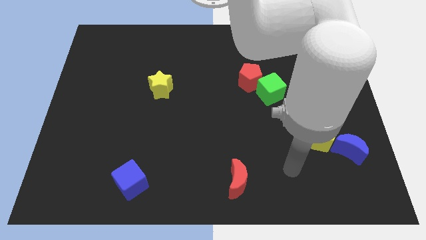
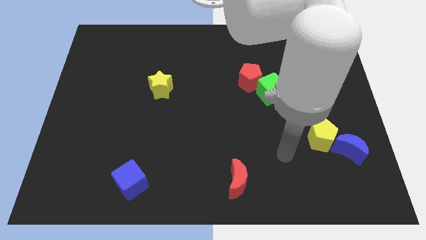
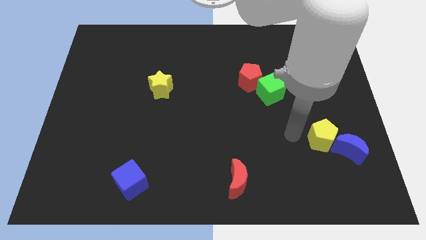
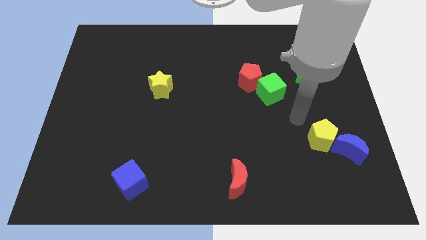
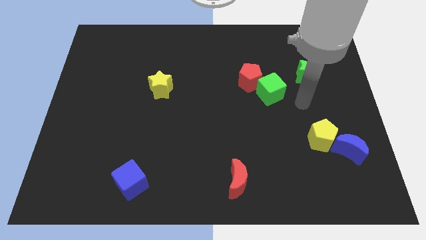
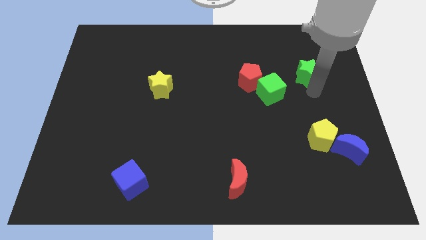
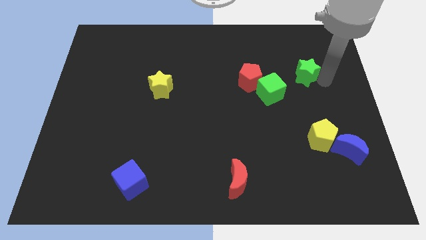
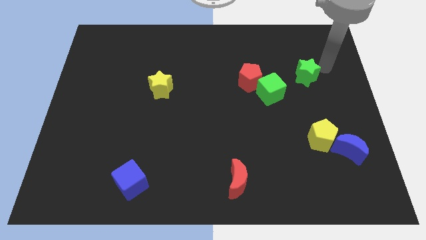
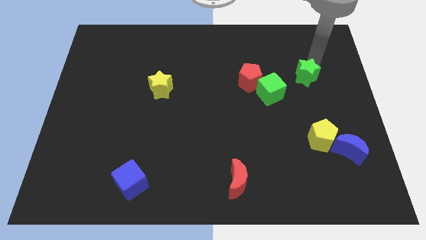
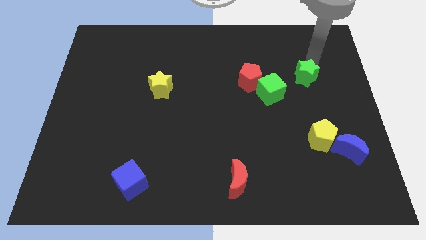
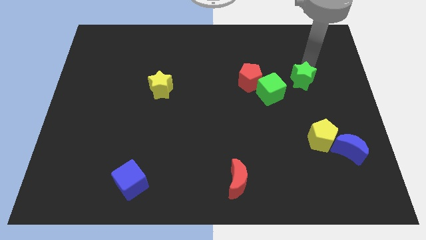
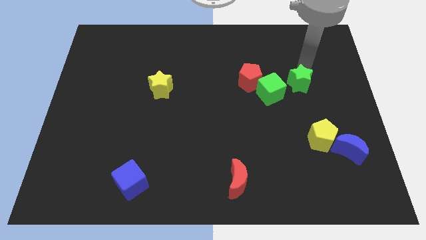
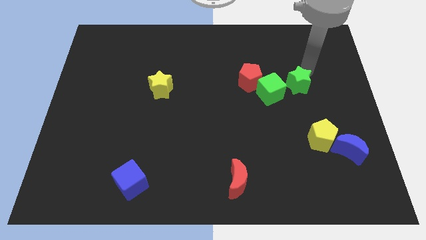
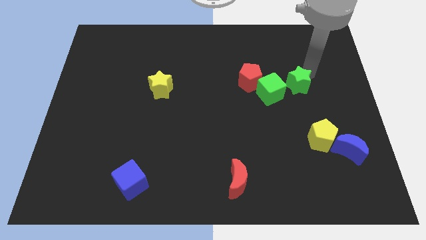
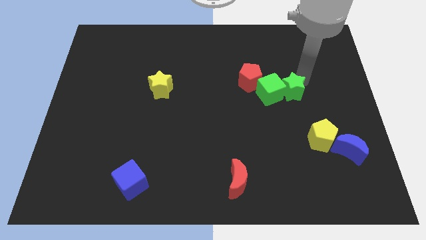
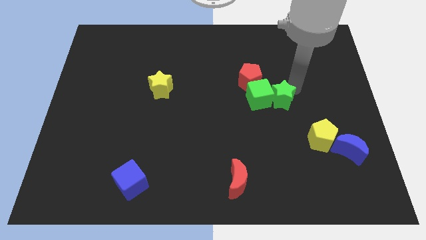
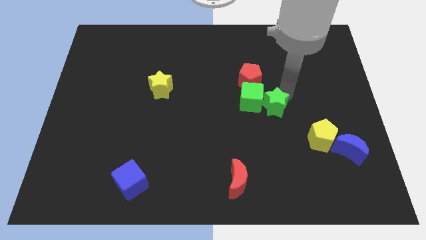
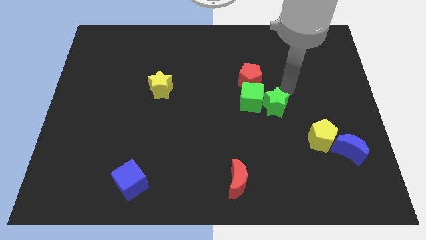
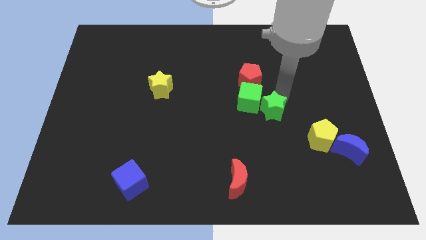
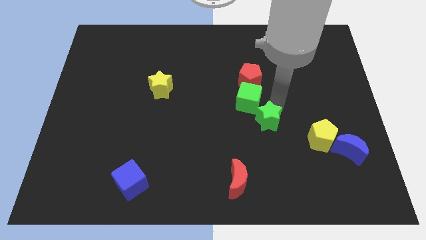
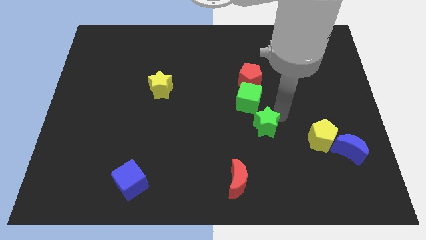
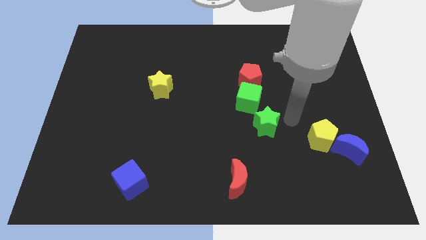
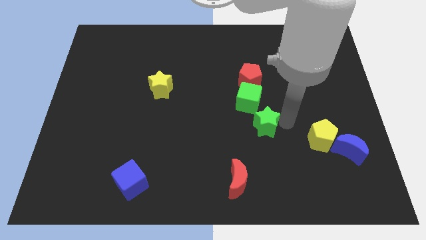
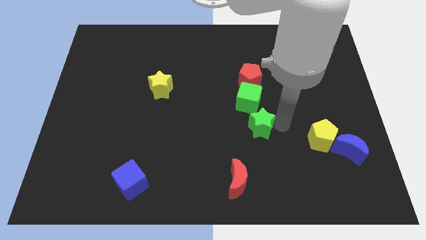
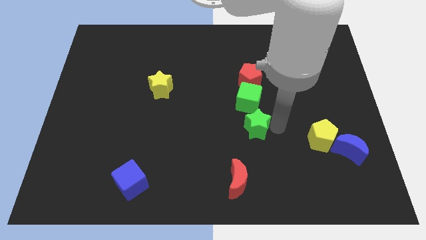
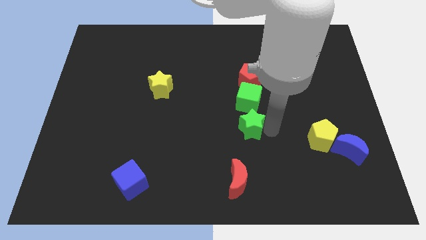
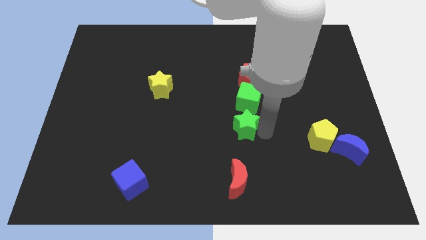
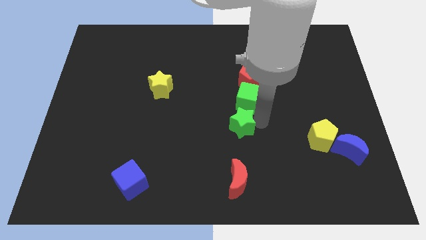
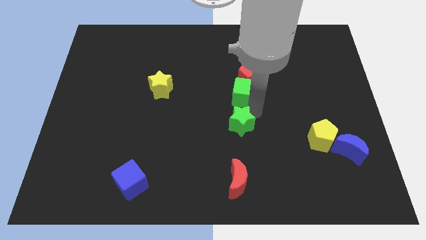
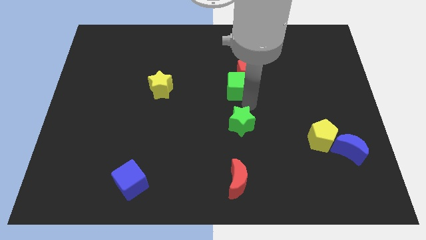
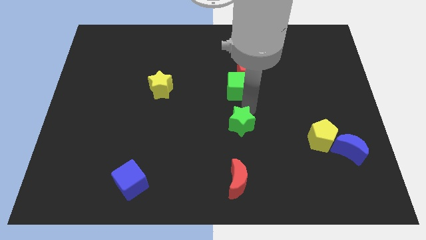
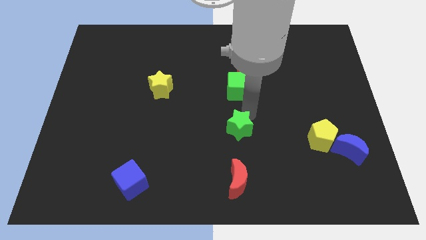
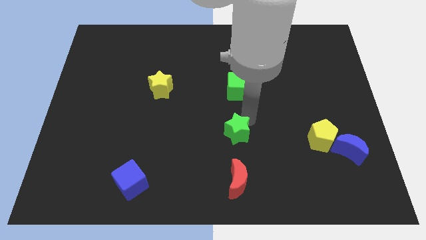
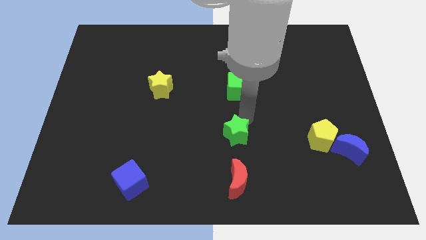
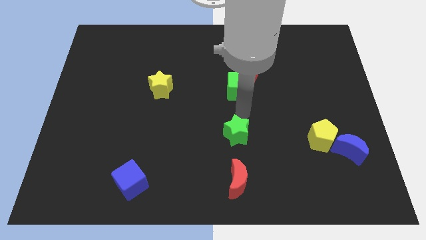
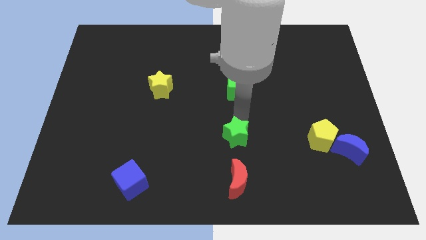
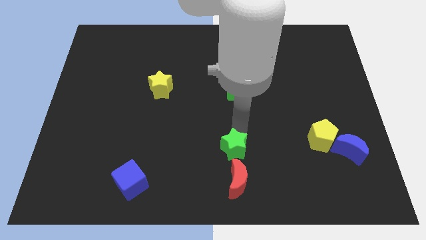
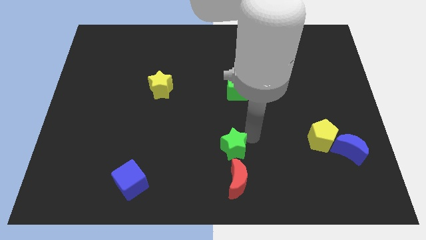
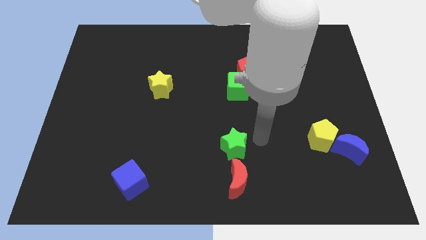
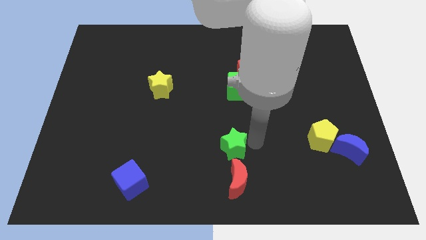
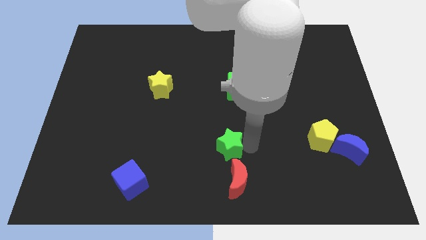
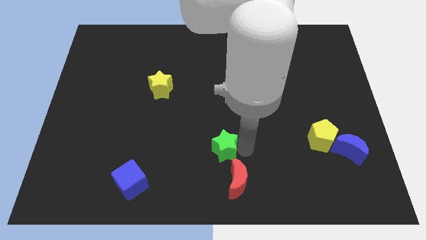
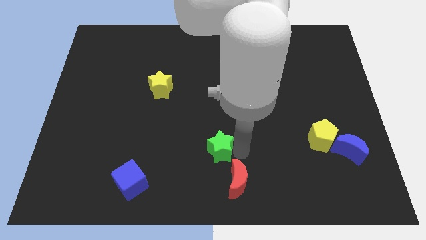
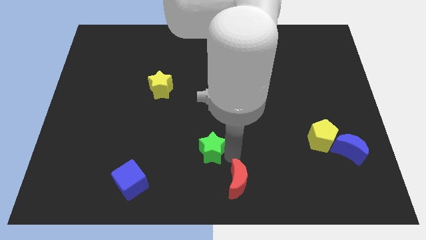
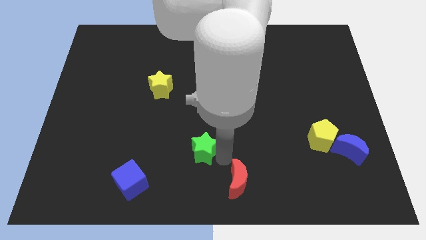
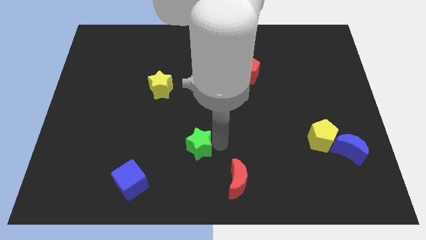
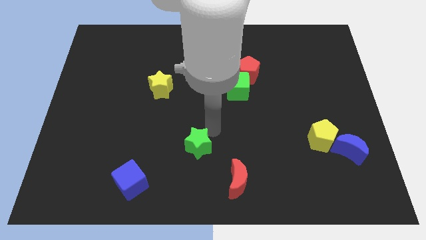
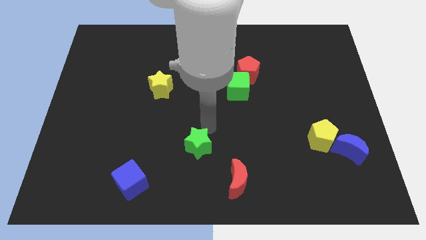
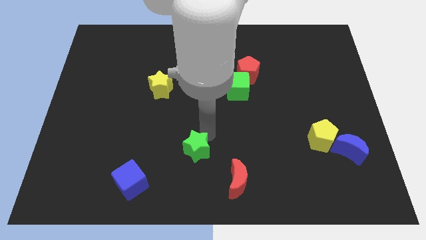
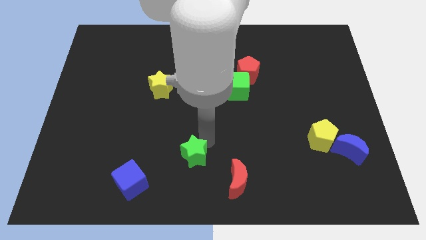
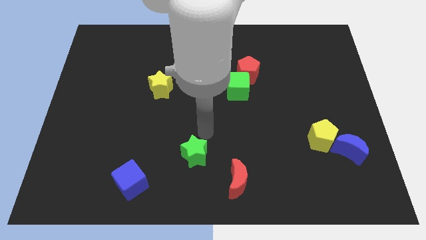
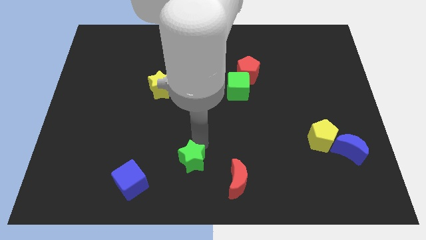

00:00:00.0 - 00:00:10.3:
move the green star right of the blue cube

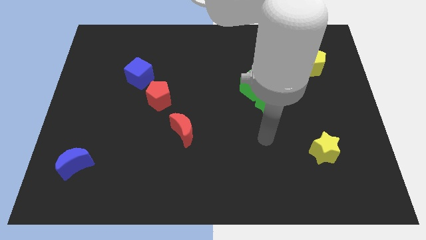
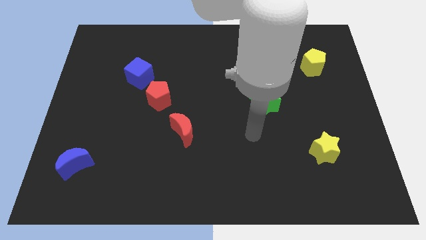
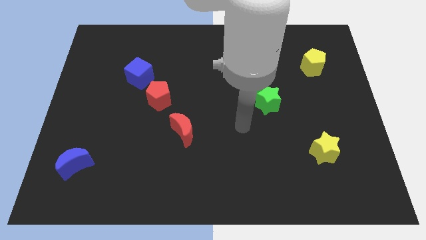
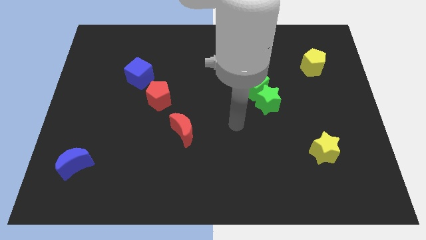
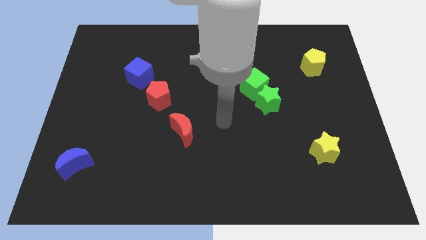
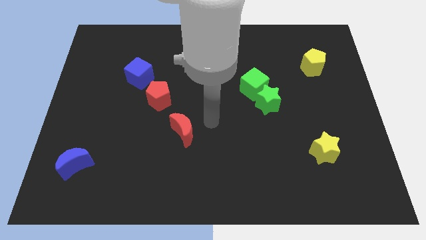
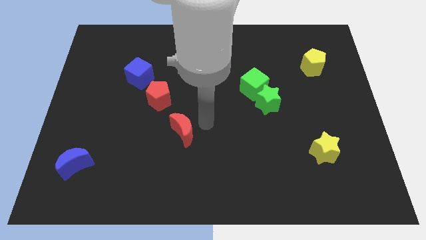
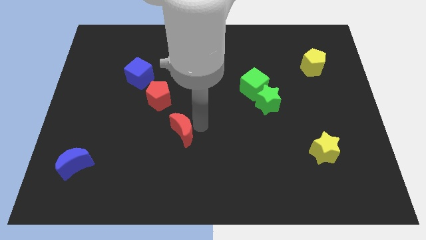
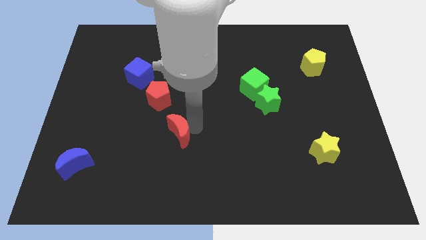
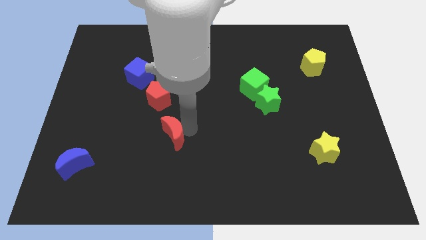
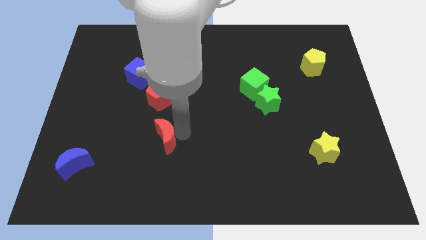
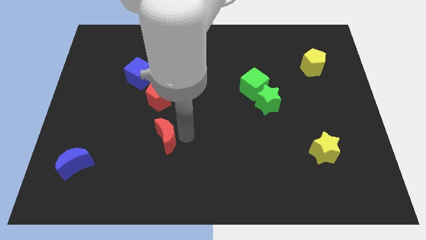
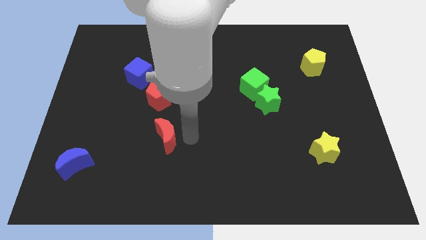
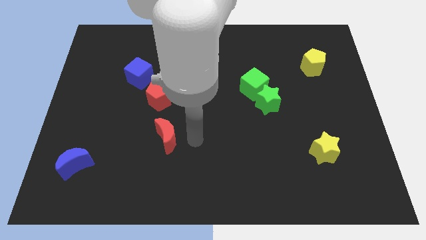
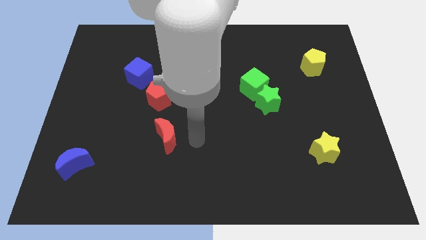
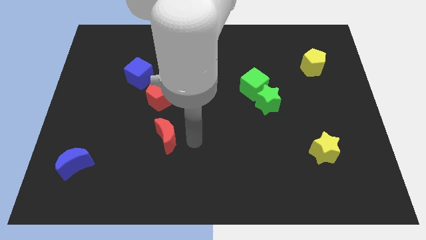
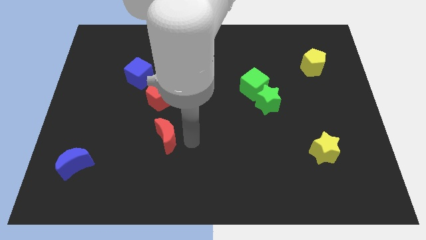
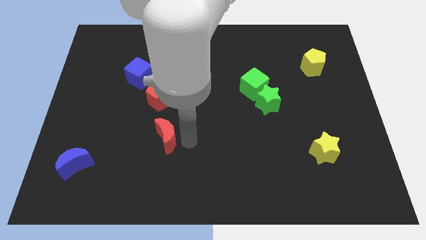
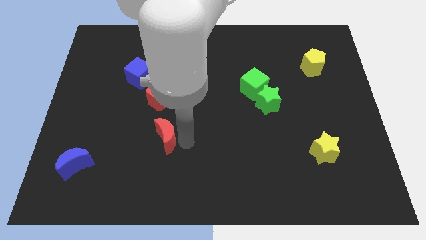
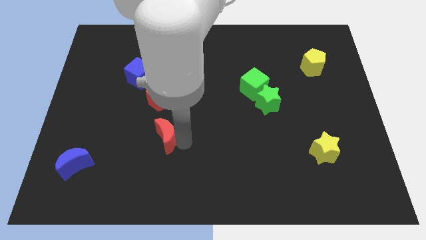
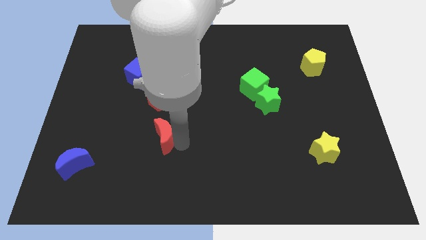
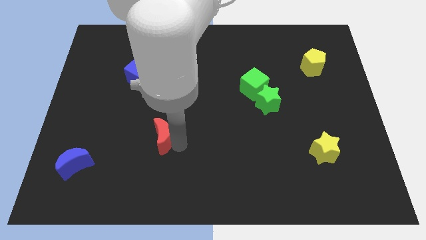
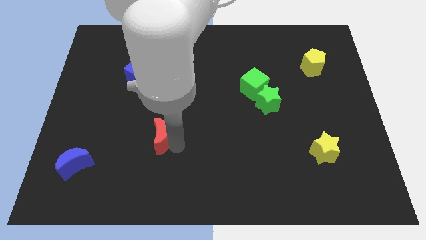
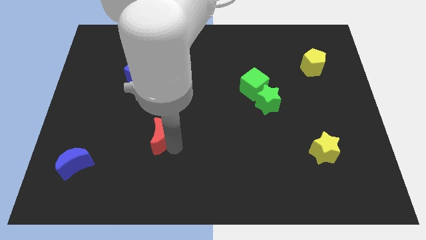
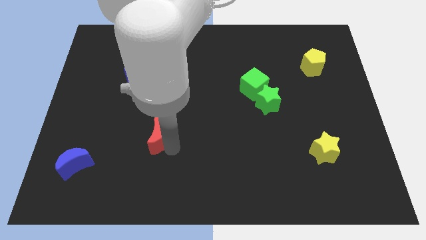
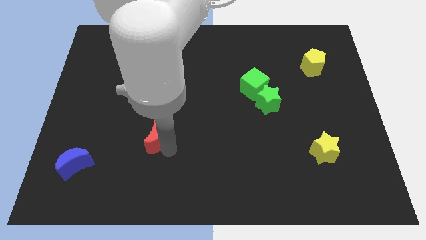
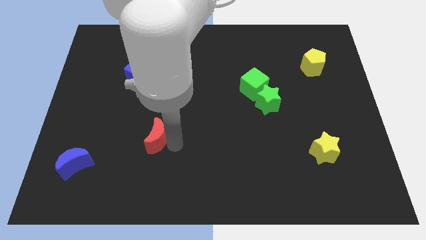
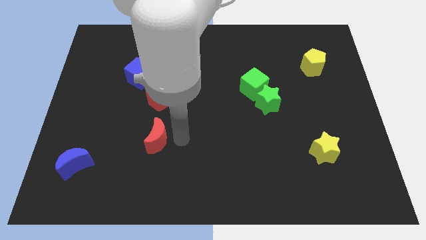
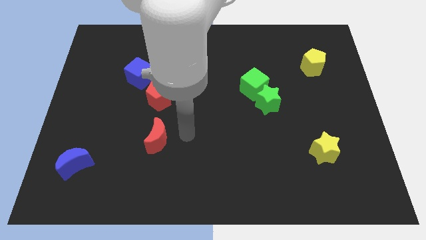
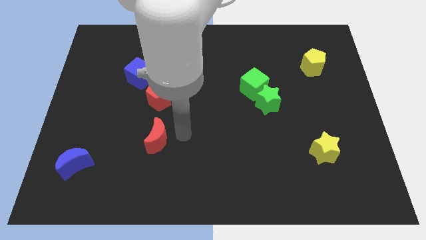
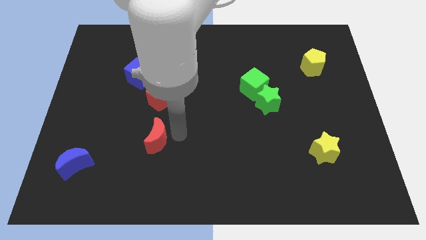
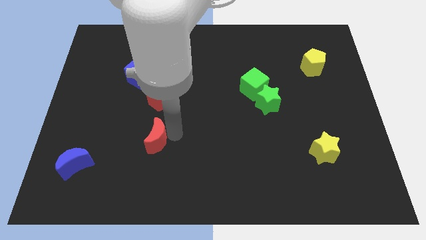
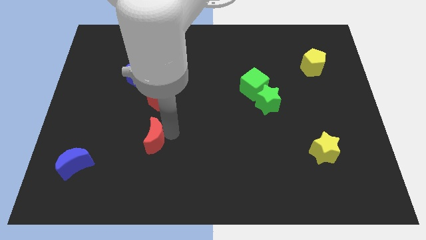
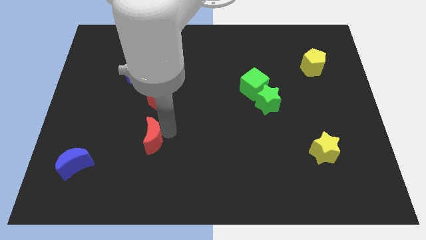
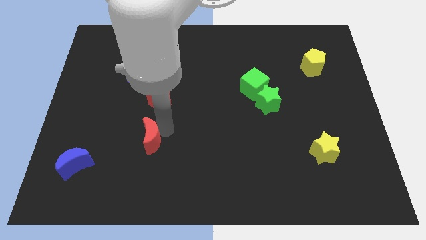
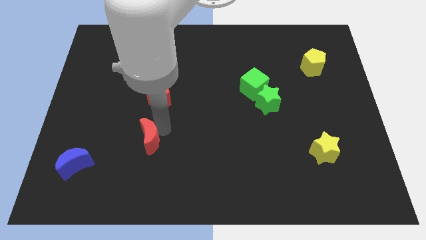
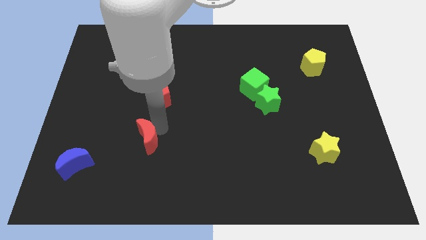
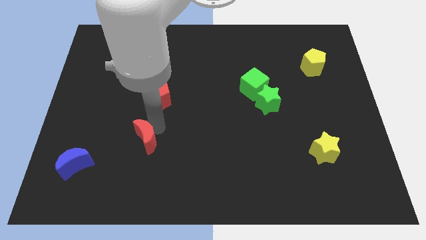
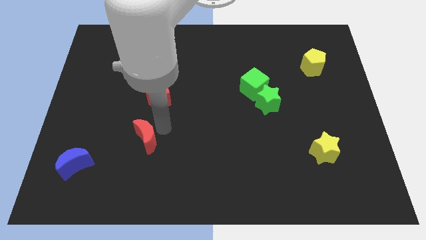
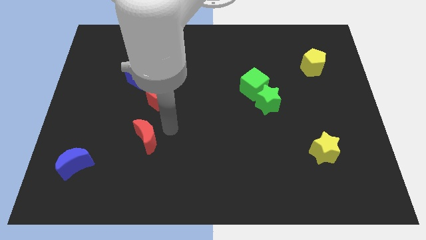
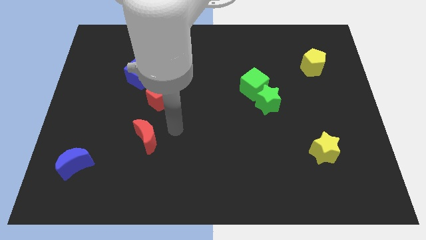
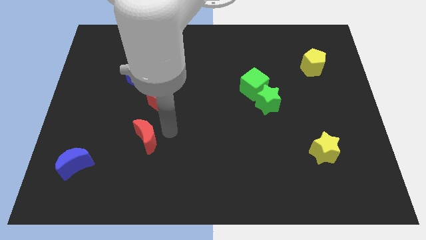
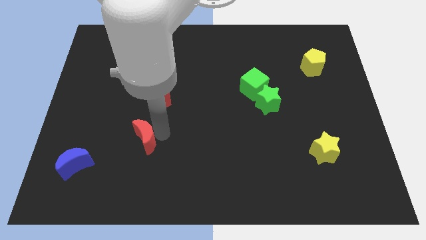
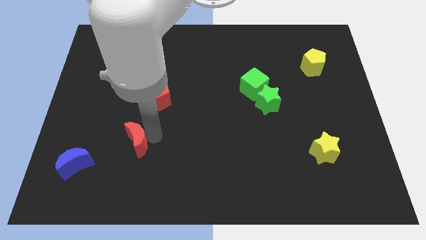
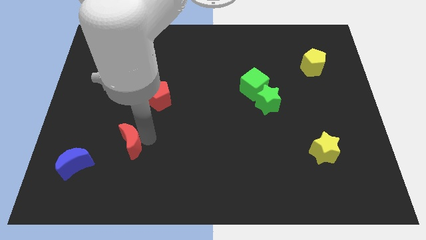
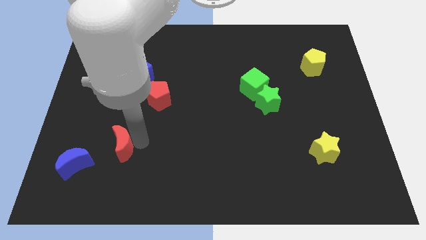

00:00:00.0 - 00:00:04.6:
slide the red moon to the top right side of the blue moon
